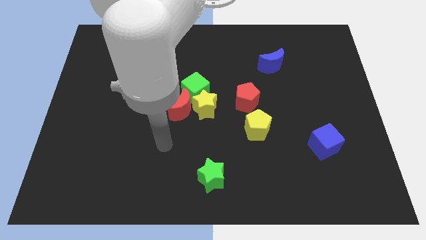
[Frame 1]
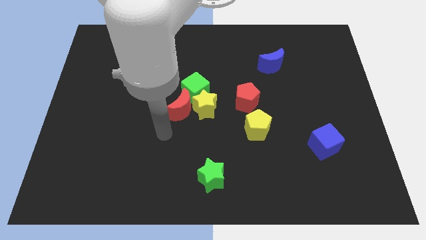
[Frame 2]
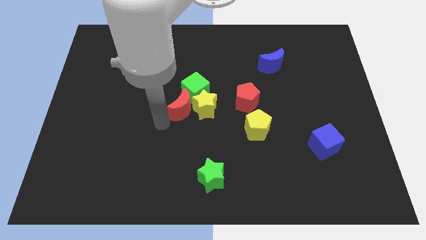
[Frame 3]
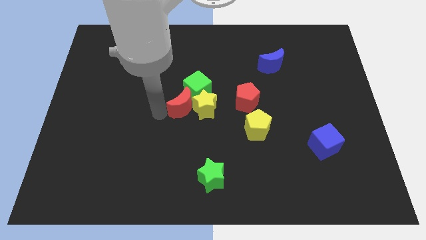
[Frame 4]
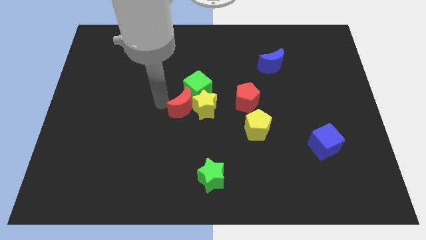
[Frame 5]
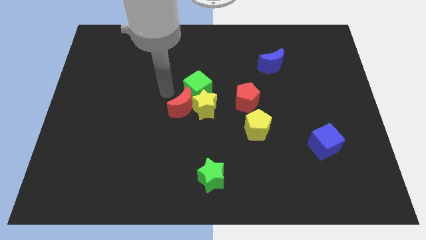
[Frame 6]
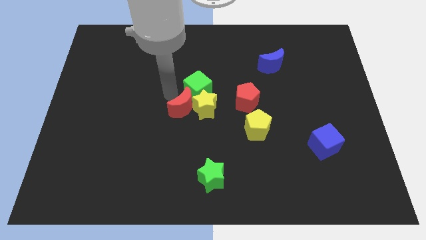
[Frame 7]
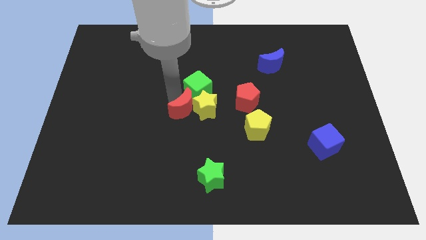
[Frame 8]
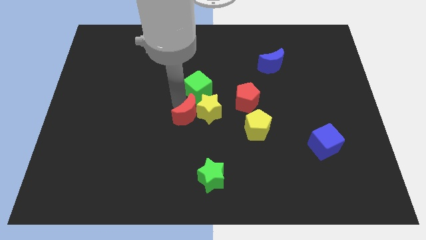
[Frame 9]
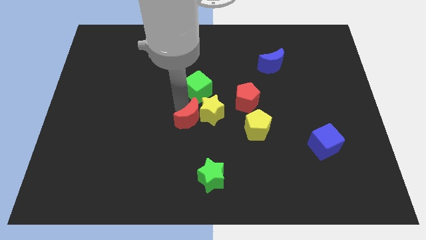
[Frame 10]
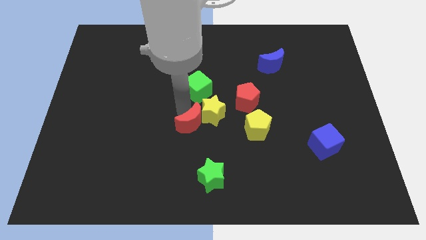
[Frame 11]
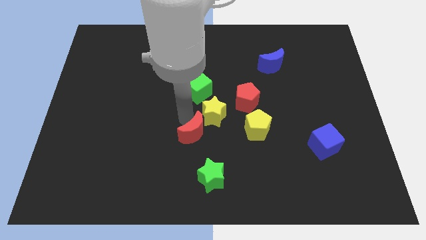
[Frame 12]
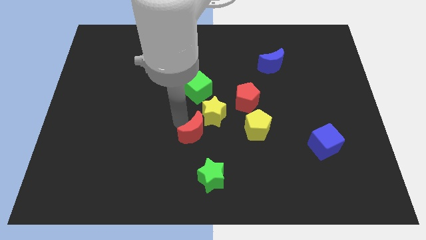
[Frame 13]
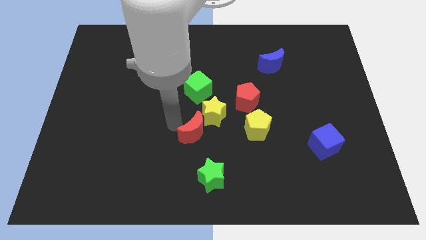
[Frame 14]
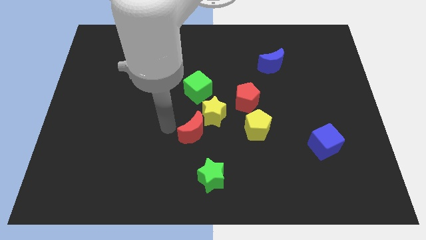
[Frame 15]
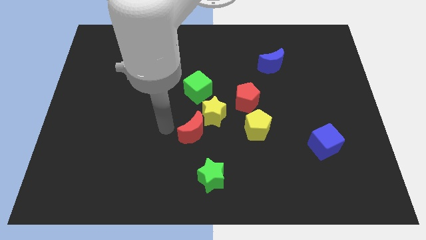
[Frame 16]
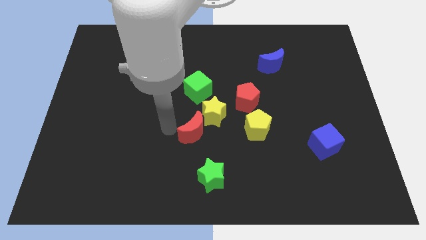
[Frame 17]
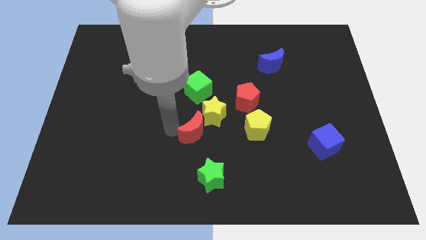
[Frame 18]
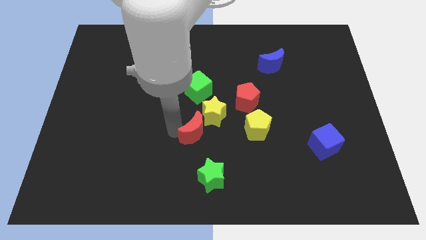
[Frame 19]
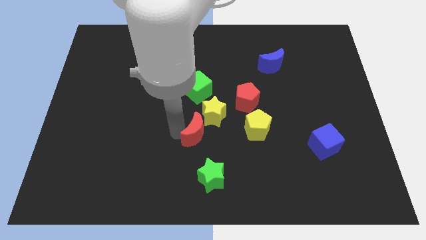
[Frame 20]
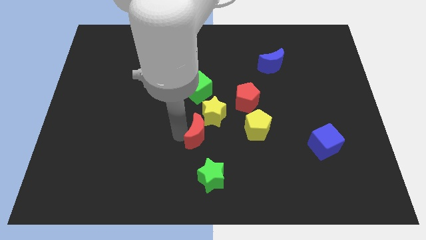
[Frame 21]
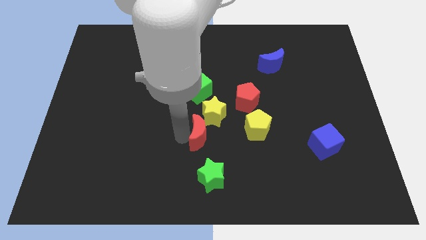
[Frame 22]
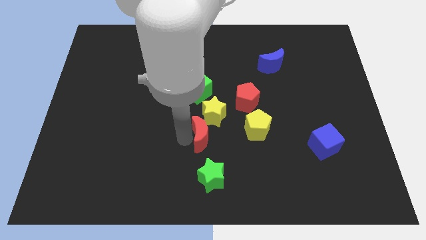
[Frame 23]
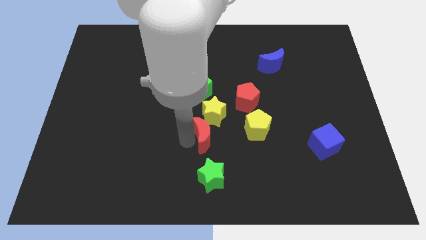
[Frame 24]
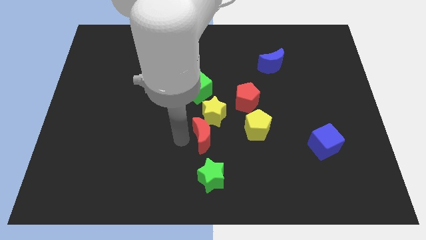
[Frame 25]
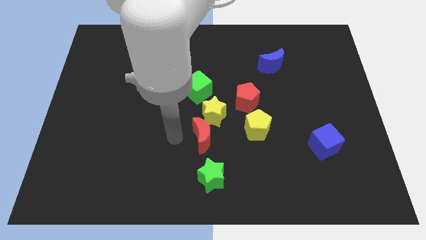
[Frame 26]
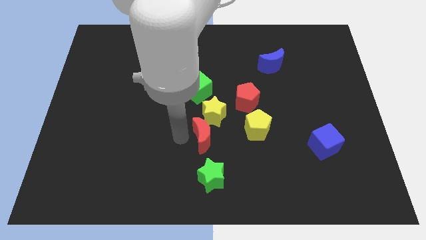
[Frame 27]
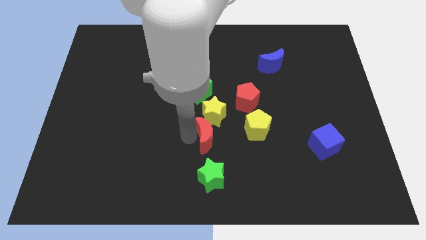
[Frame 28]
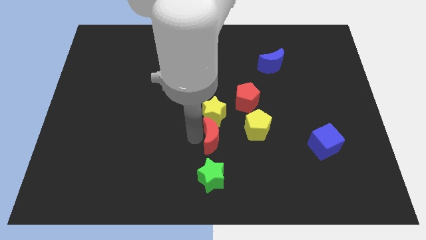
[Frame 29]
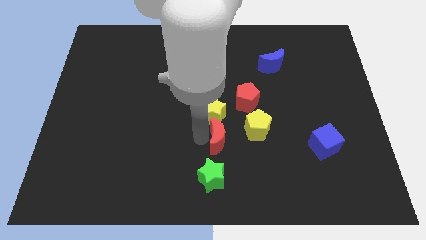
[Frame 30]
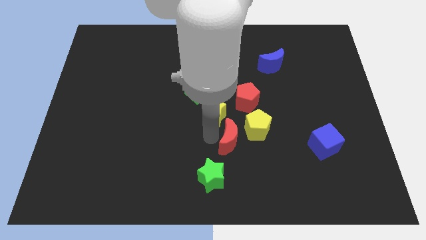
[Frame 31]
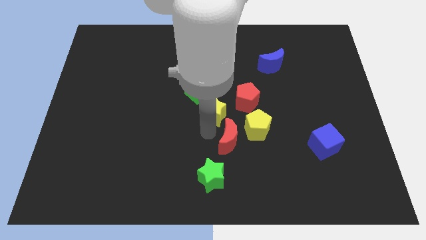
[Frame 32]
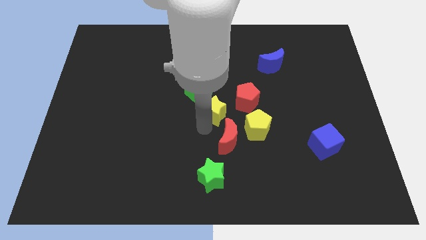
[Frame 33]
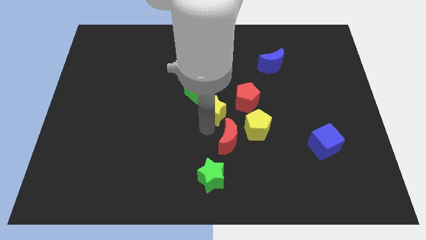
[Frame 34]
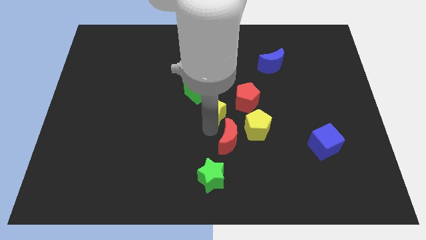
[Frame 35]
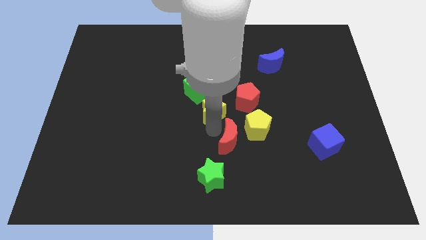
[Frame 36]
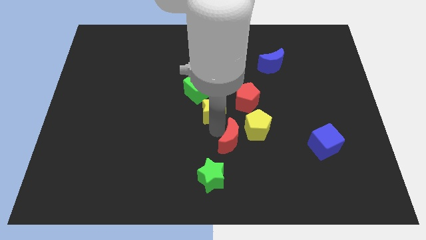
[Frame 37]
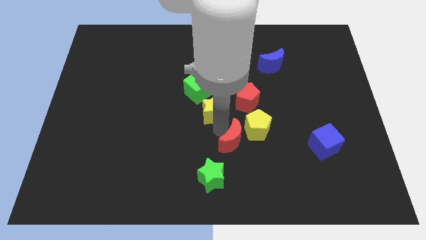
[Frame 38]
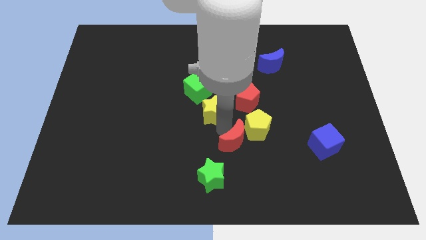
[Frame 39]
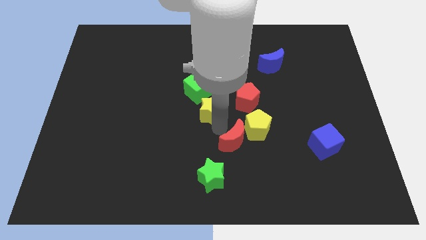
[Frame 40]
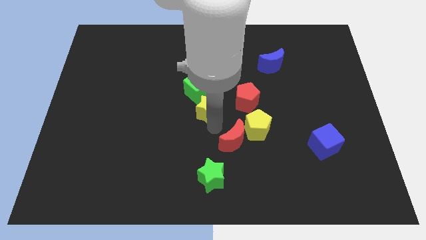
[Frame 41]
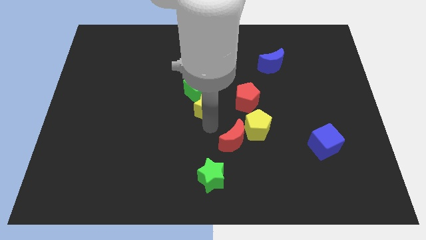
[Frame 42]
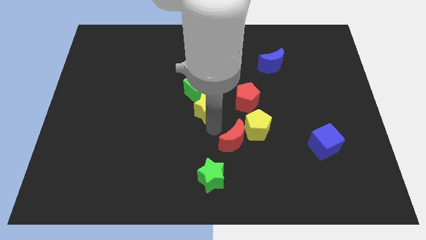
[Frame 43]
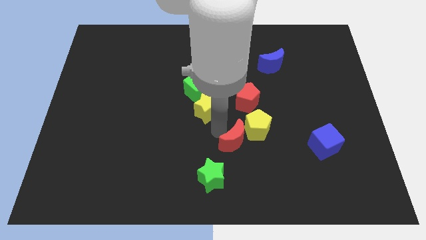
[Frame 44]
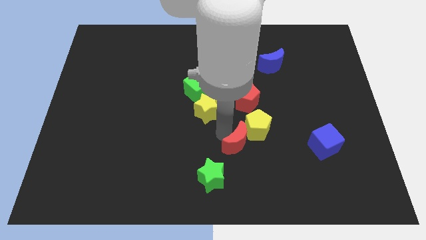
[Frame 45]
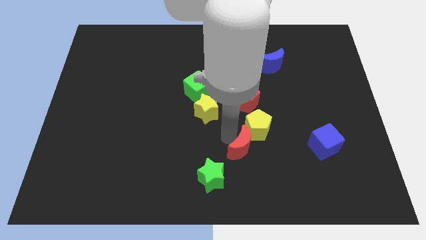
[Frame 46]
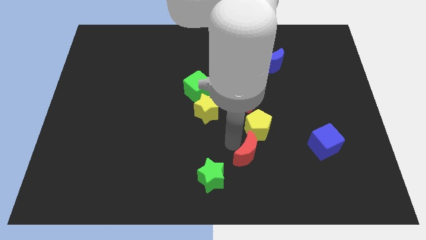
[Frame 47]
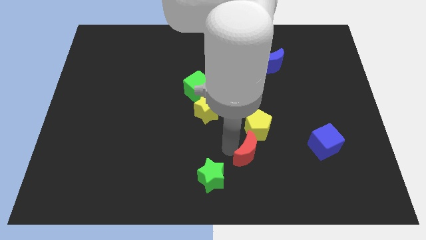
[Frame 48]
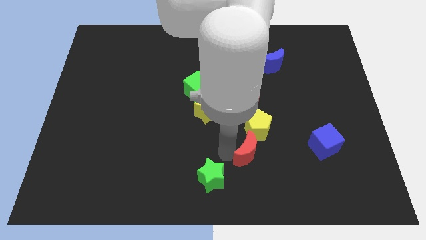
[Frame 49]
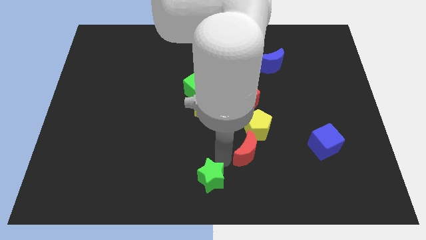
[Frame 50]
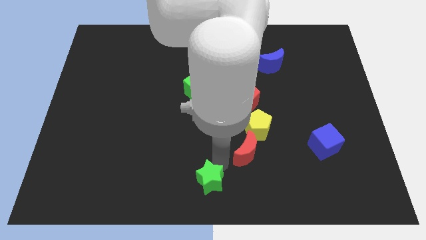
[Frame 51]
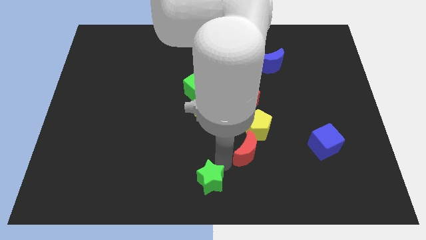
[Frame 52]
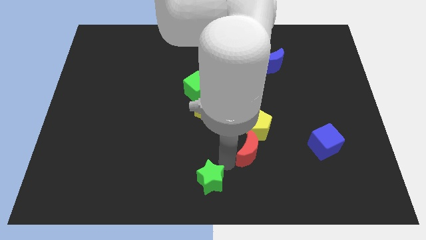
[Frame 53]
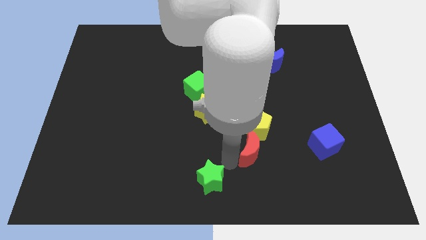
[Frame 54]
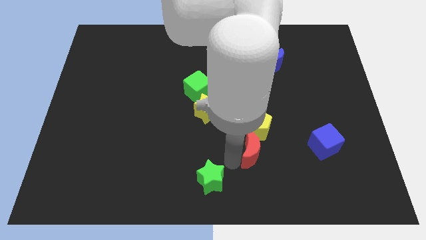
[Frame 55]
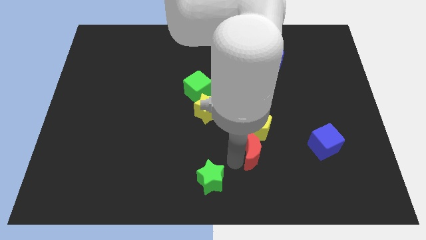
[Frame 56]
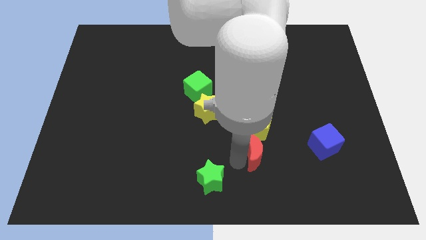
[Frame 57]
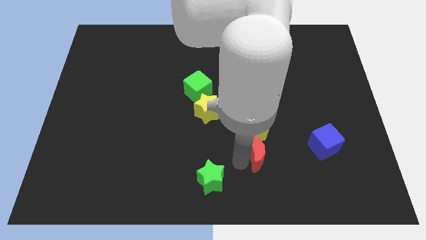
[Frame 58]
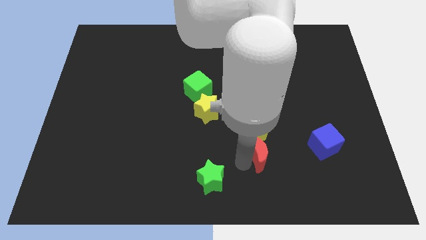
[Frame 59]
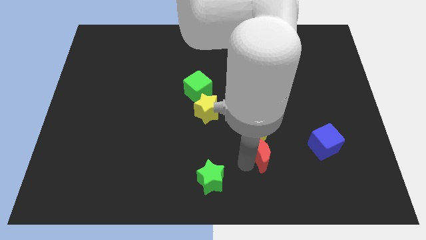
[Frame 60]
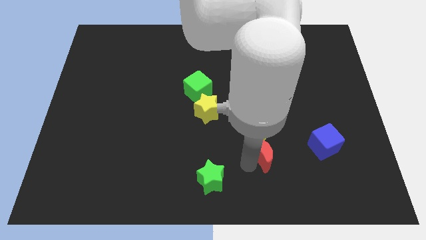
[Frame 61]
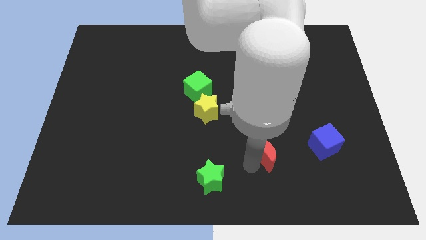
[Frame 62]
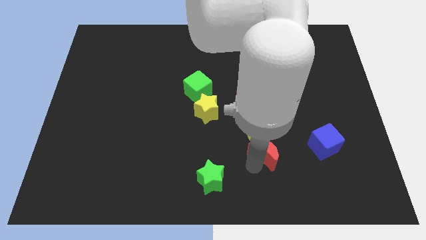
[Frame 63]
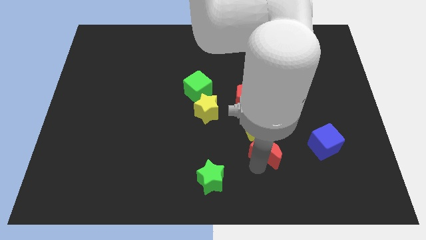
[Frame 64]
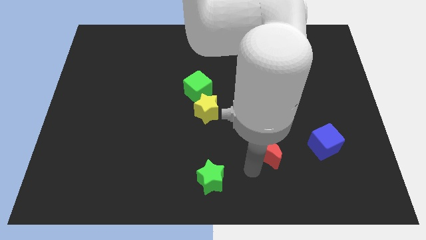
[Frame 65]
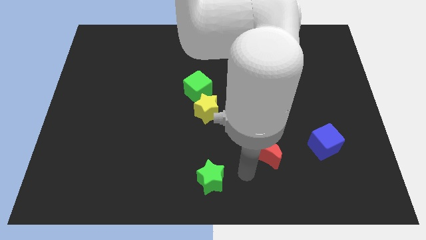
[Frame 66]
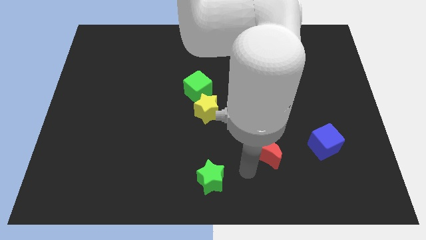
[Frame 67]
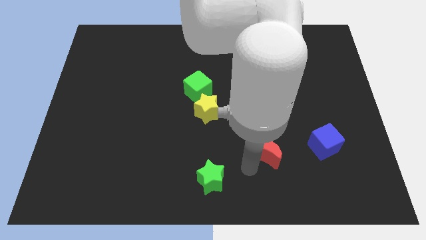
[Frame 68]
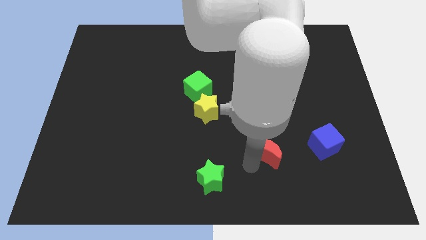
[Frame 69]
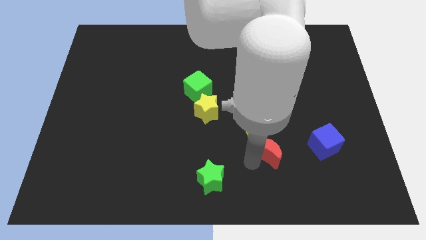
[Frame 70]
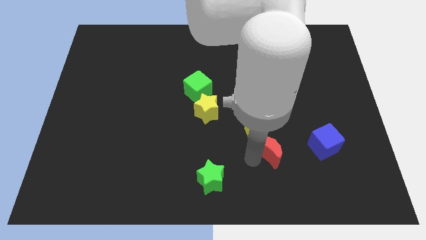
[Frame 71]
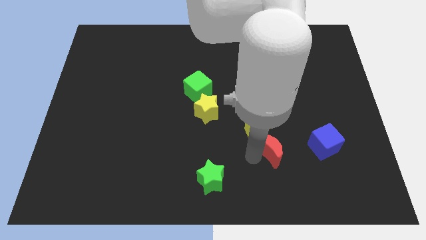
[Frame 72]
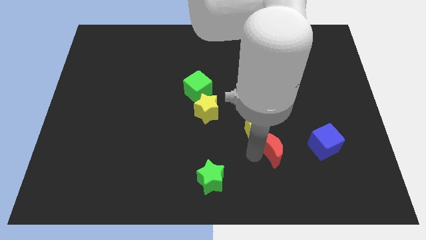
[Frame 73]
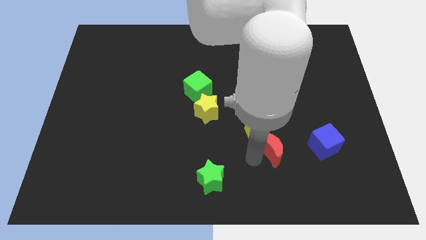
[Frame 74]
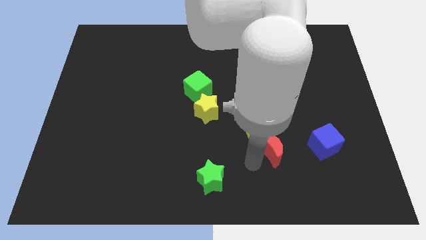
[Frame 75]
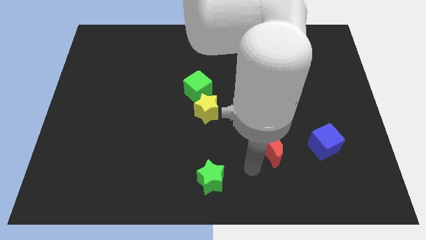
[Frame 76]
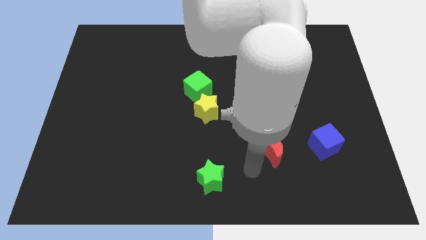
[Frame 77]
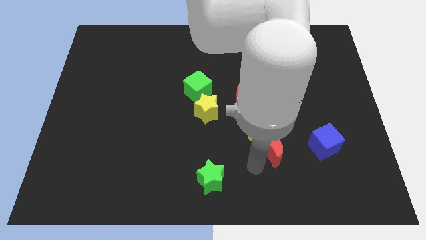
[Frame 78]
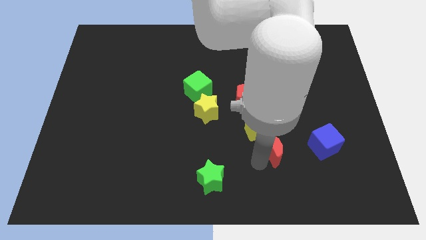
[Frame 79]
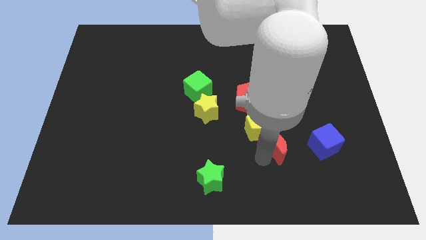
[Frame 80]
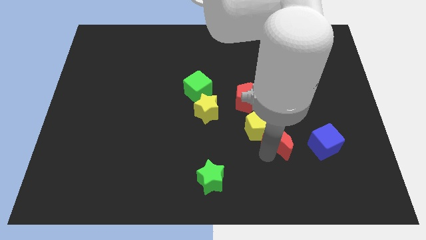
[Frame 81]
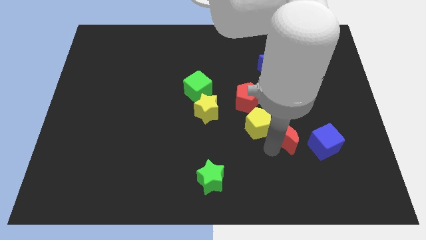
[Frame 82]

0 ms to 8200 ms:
slide the red moon to the right

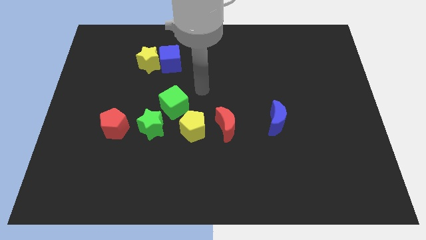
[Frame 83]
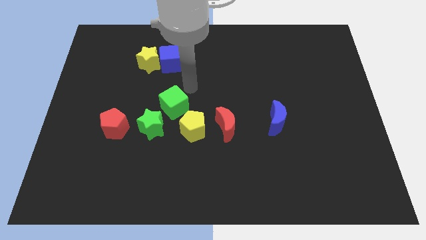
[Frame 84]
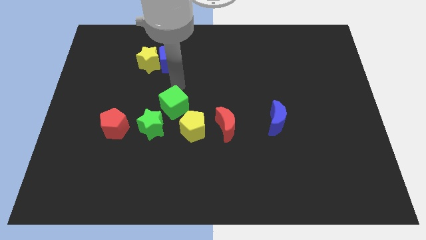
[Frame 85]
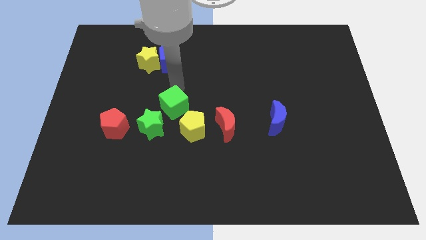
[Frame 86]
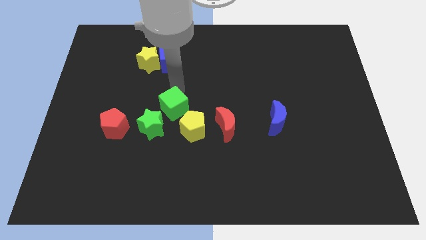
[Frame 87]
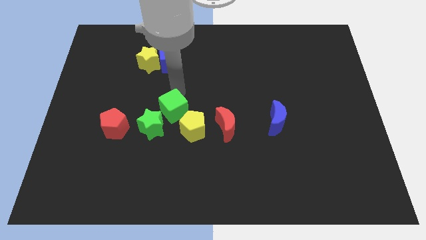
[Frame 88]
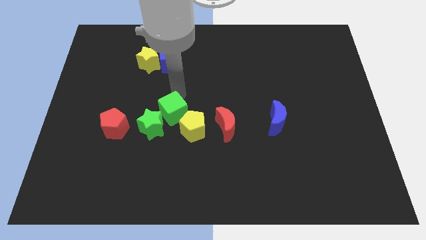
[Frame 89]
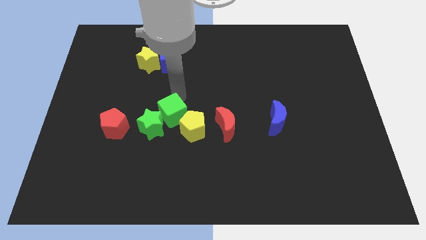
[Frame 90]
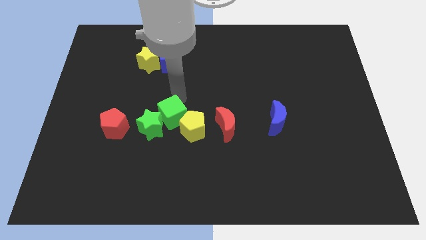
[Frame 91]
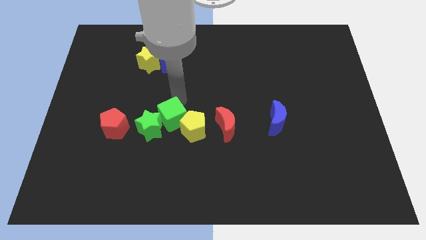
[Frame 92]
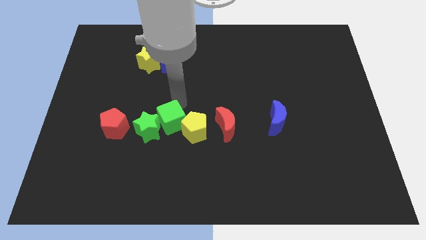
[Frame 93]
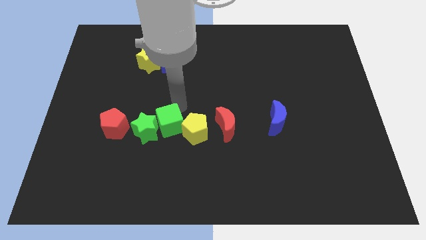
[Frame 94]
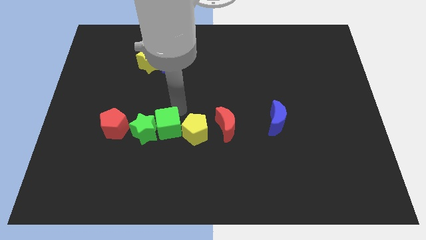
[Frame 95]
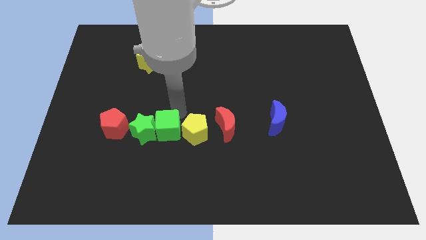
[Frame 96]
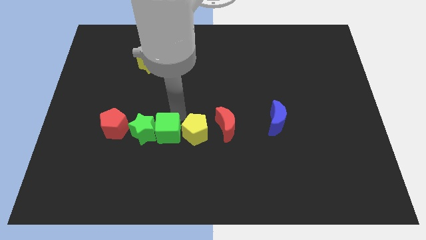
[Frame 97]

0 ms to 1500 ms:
slide the green cube a little bit down
